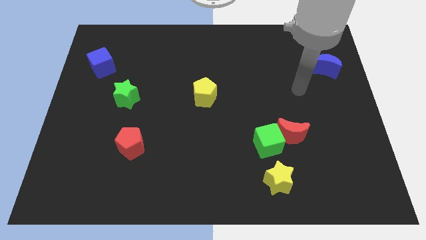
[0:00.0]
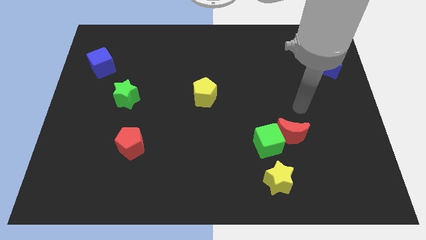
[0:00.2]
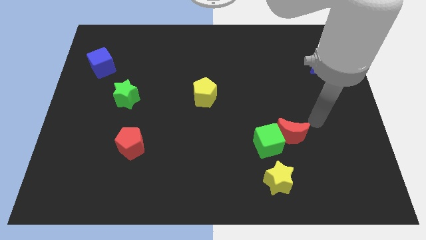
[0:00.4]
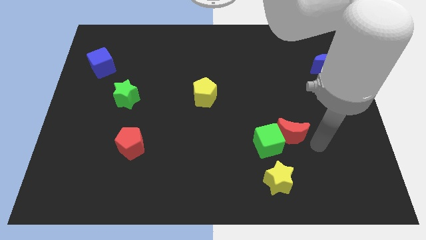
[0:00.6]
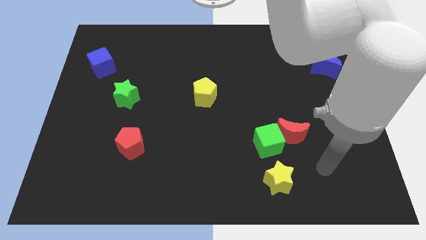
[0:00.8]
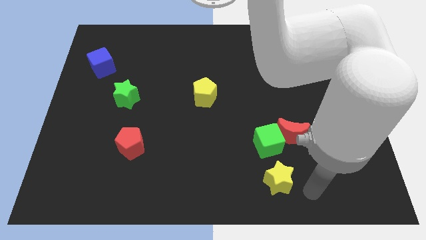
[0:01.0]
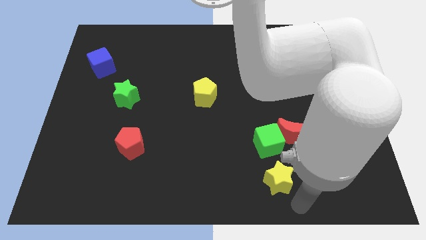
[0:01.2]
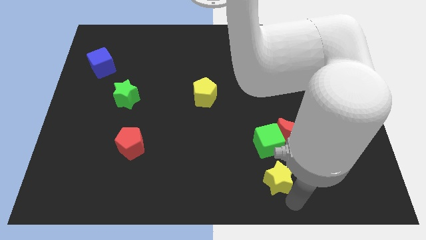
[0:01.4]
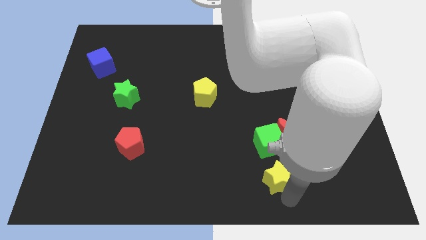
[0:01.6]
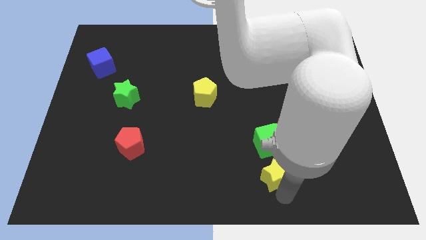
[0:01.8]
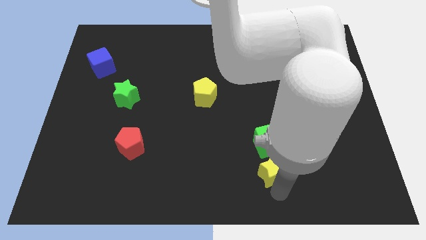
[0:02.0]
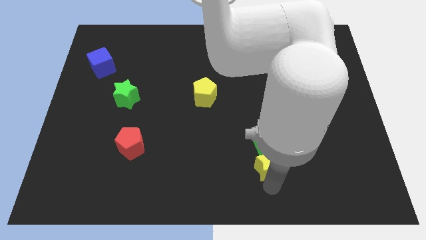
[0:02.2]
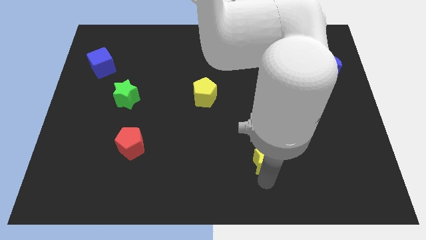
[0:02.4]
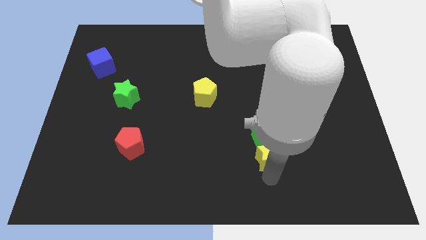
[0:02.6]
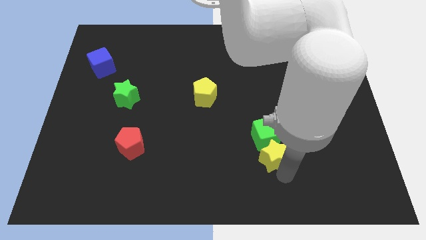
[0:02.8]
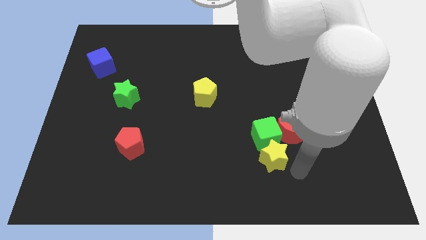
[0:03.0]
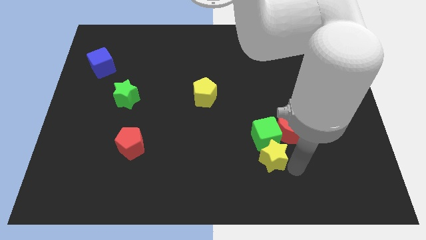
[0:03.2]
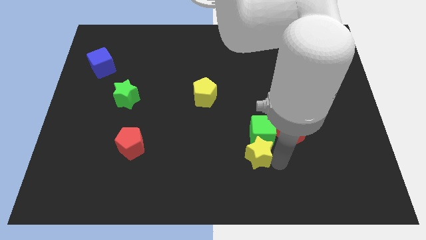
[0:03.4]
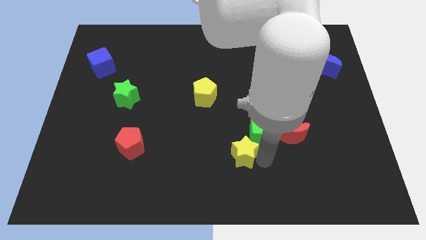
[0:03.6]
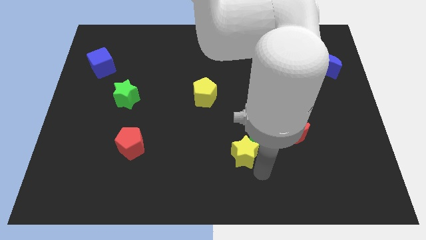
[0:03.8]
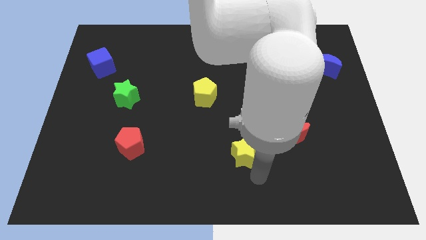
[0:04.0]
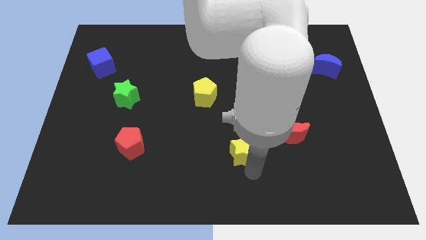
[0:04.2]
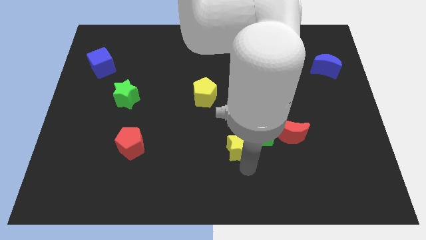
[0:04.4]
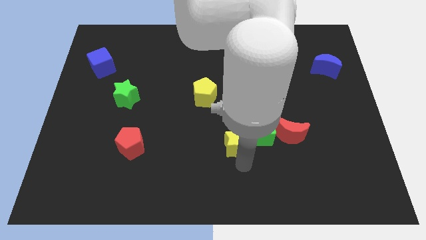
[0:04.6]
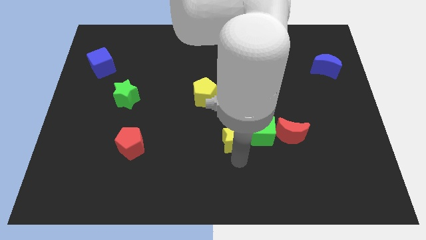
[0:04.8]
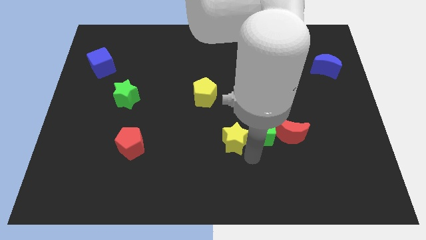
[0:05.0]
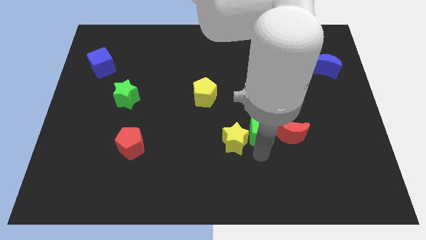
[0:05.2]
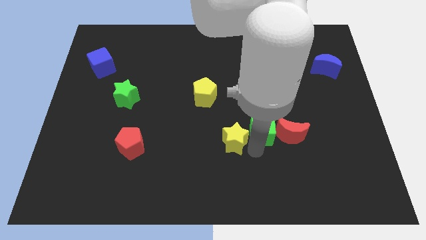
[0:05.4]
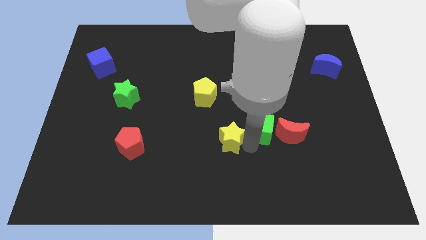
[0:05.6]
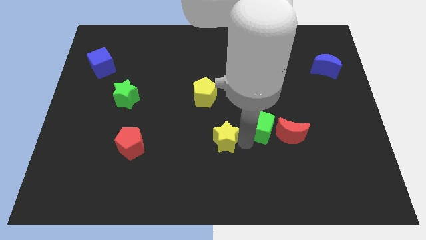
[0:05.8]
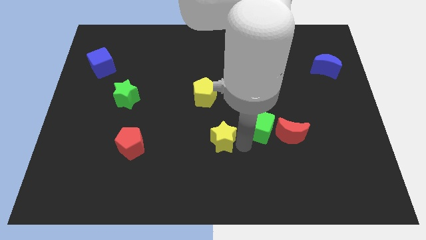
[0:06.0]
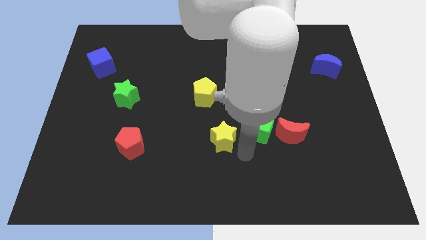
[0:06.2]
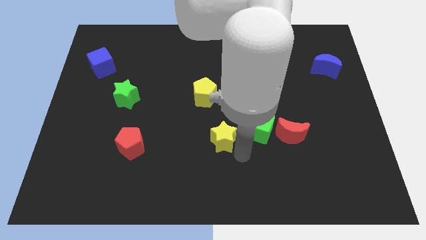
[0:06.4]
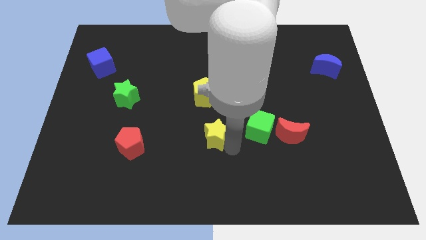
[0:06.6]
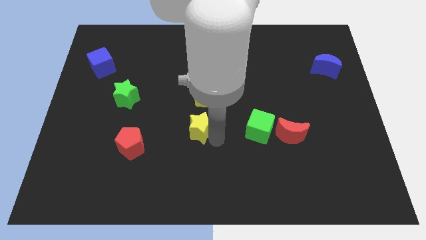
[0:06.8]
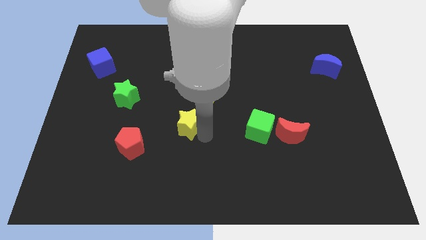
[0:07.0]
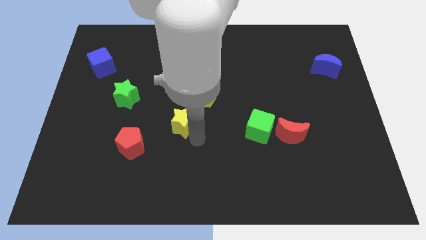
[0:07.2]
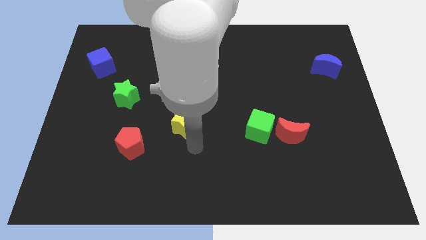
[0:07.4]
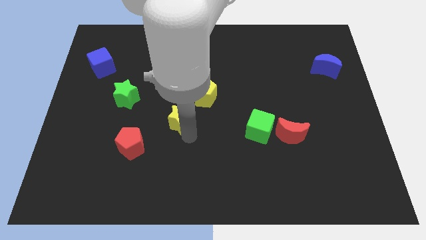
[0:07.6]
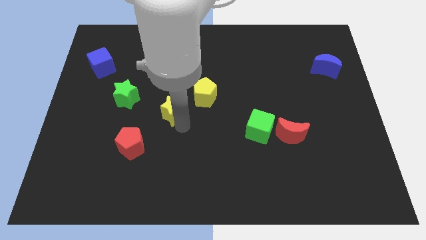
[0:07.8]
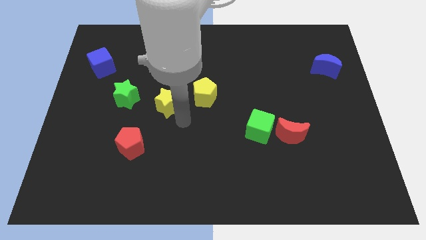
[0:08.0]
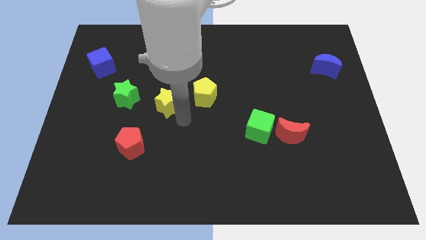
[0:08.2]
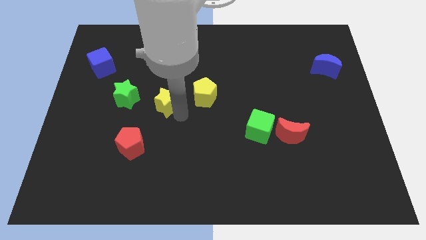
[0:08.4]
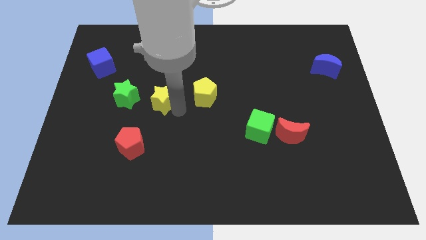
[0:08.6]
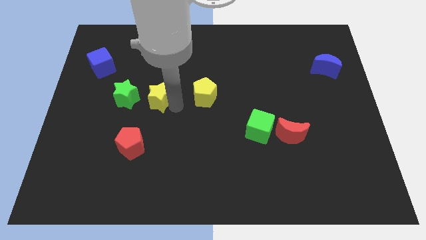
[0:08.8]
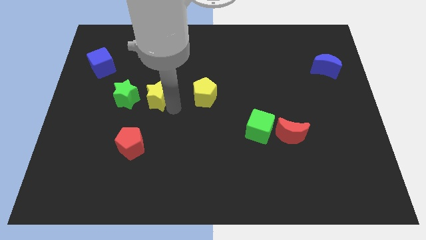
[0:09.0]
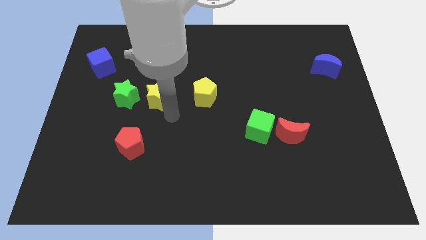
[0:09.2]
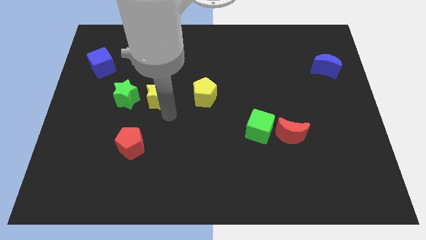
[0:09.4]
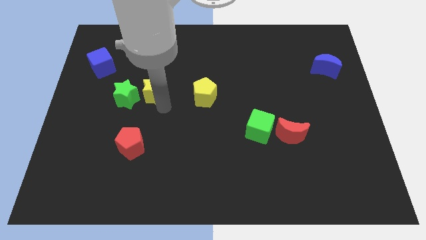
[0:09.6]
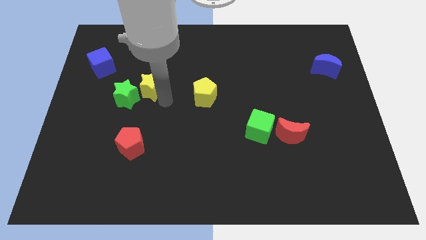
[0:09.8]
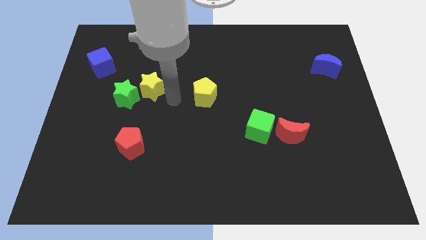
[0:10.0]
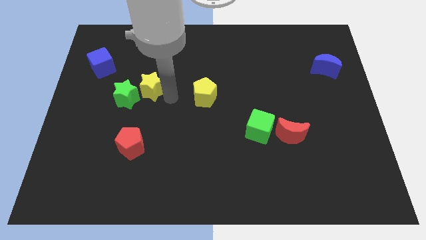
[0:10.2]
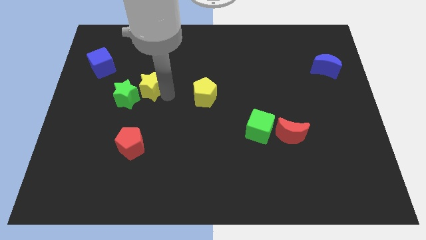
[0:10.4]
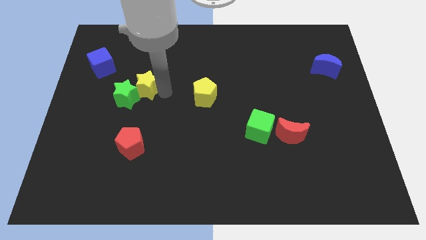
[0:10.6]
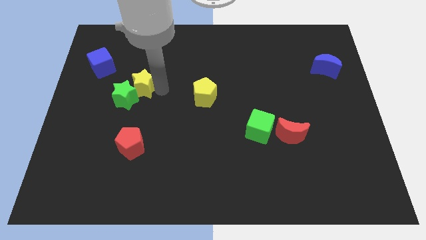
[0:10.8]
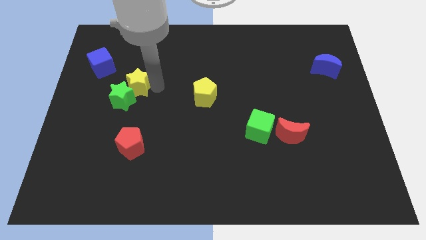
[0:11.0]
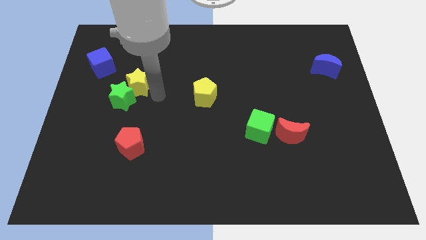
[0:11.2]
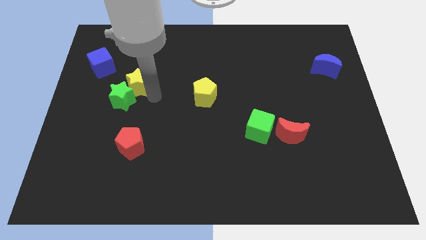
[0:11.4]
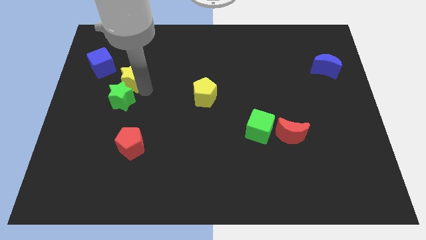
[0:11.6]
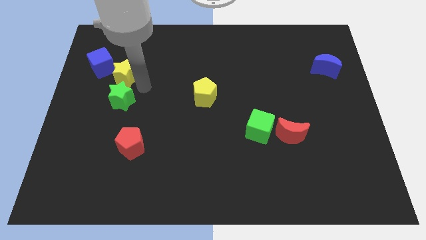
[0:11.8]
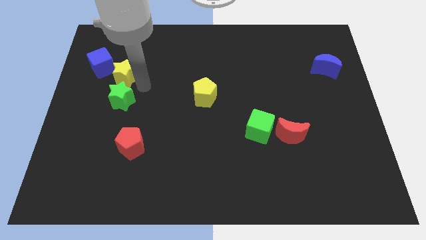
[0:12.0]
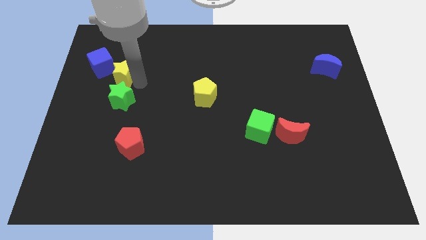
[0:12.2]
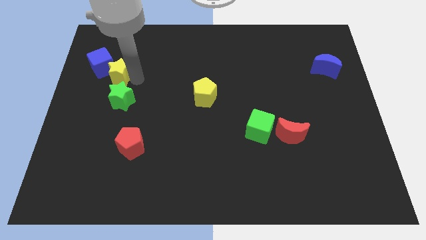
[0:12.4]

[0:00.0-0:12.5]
slide the yellow star next to the blue cube

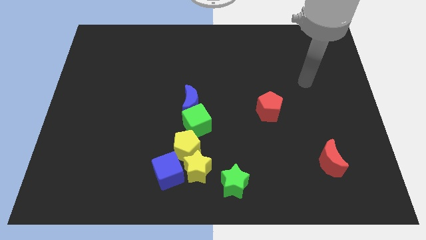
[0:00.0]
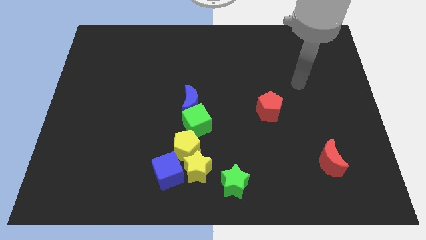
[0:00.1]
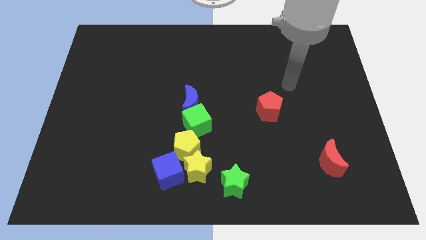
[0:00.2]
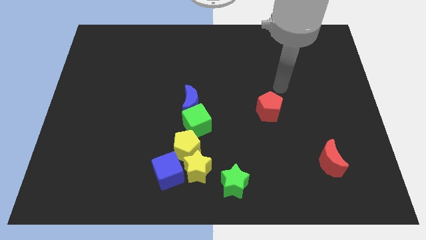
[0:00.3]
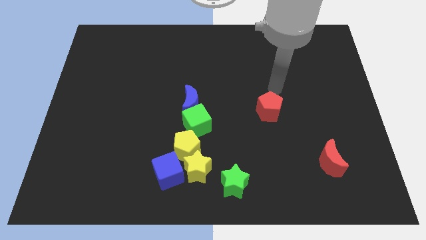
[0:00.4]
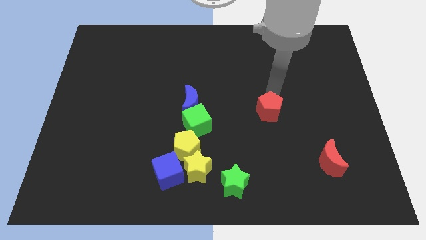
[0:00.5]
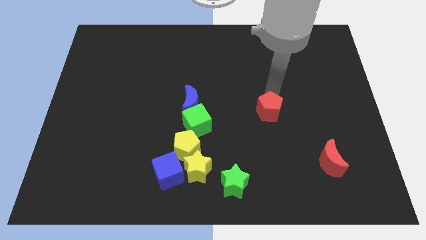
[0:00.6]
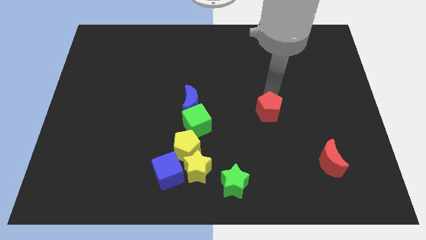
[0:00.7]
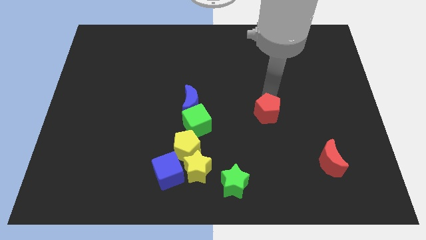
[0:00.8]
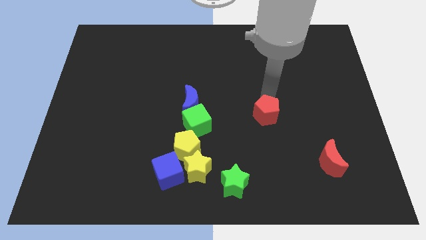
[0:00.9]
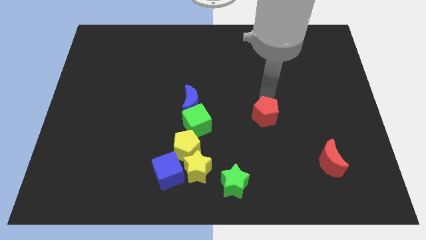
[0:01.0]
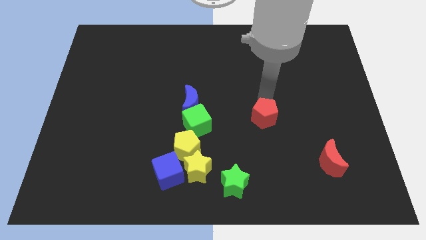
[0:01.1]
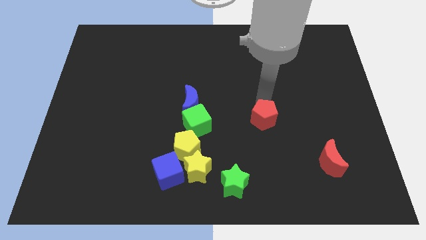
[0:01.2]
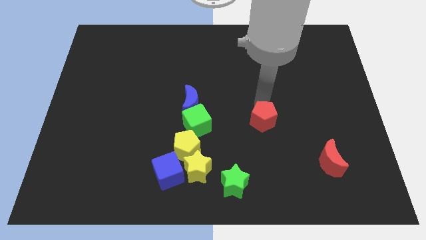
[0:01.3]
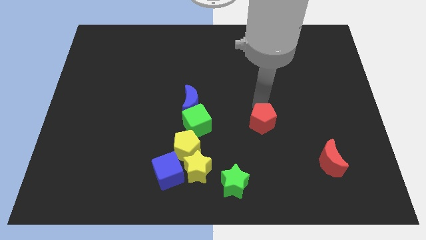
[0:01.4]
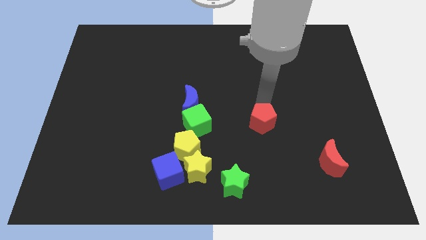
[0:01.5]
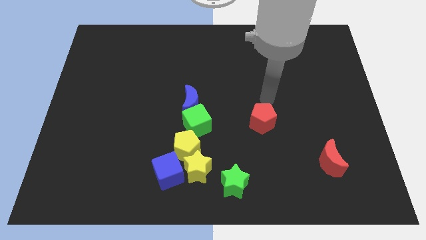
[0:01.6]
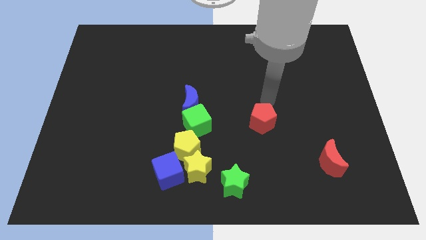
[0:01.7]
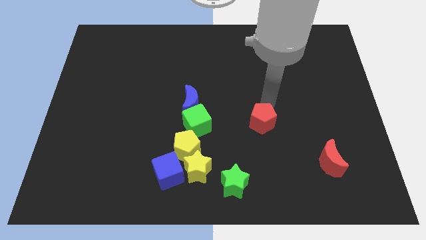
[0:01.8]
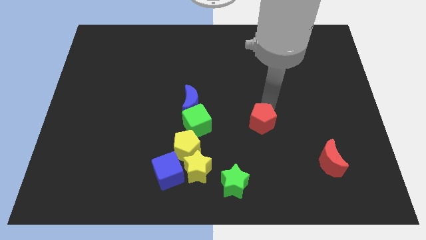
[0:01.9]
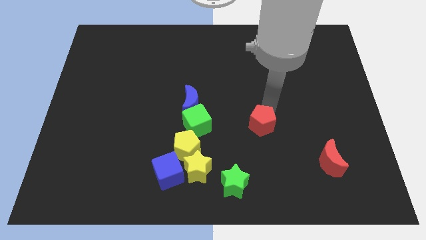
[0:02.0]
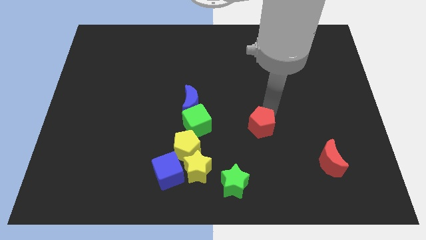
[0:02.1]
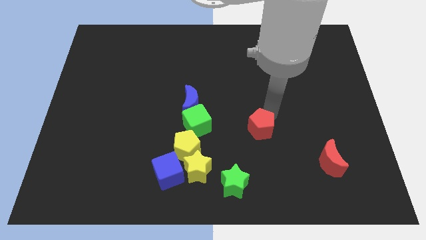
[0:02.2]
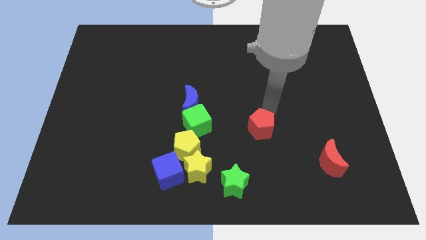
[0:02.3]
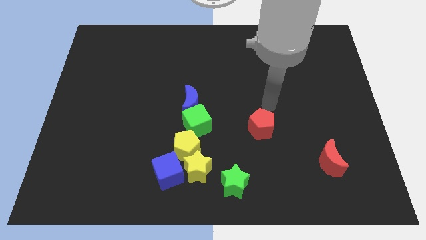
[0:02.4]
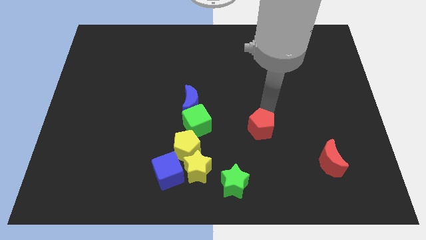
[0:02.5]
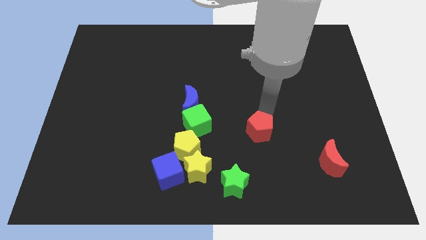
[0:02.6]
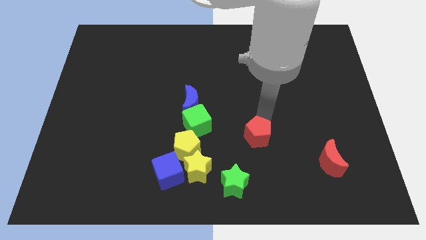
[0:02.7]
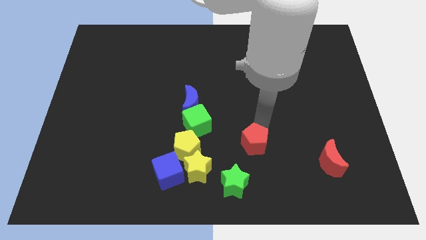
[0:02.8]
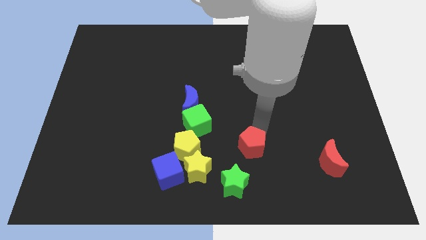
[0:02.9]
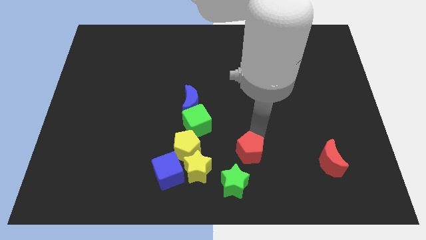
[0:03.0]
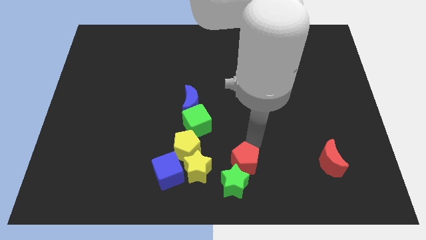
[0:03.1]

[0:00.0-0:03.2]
put the red pentagon next to the green star
